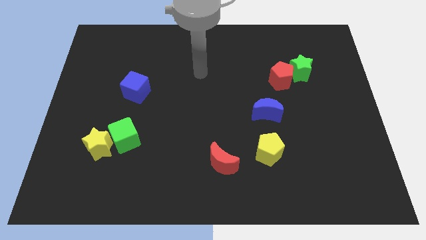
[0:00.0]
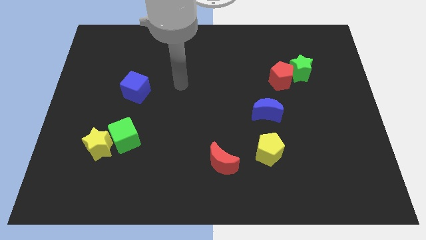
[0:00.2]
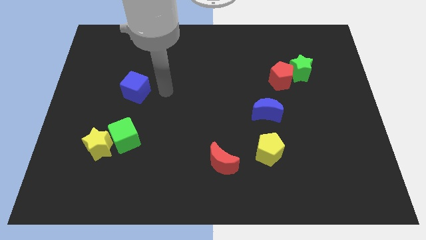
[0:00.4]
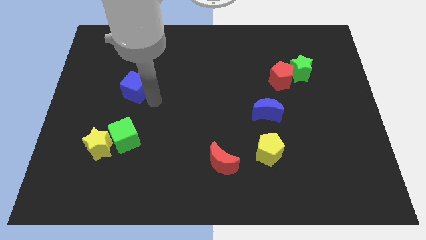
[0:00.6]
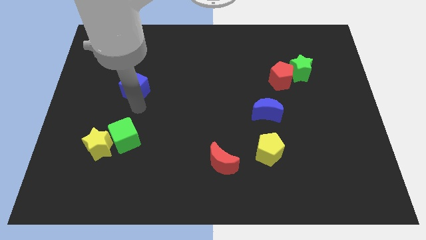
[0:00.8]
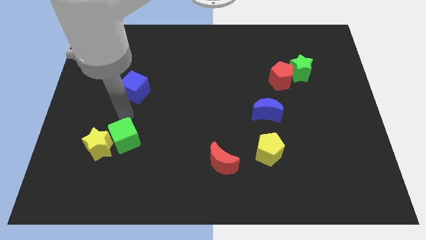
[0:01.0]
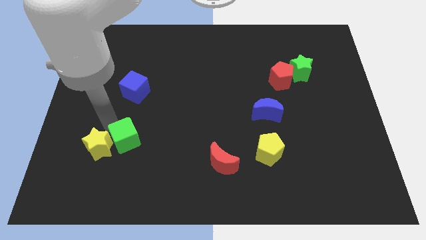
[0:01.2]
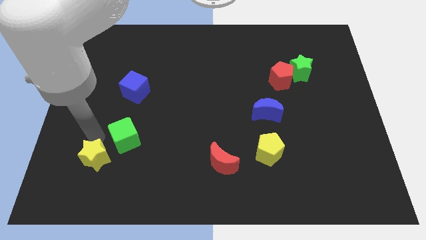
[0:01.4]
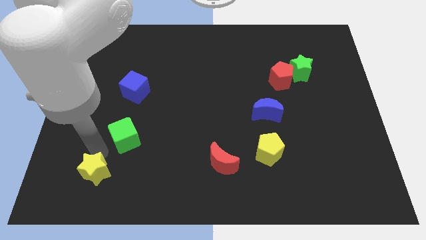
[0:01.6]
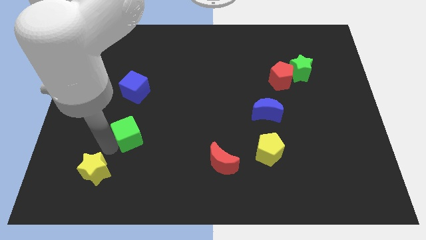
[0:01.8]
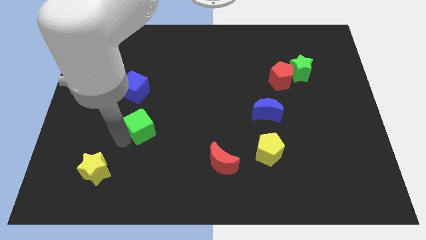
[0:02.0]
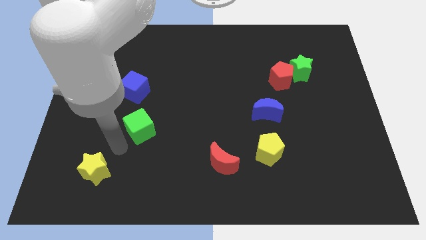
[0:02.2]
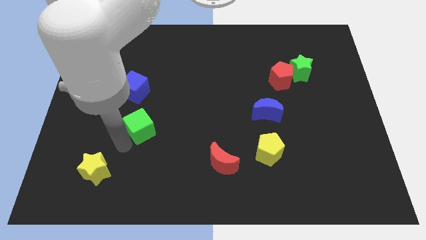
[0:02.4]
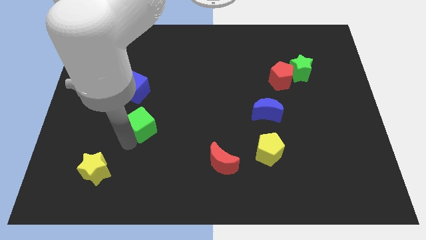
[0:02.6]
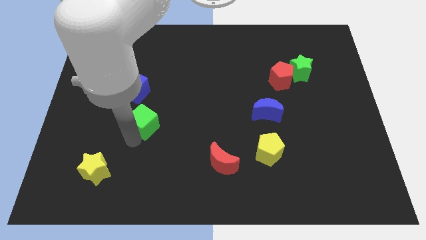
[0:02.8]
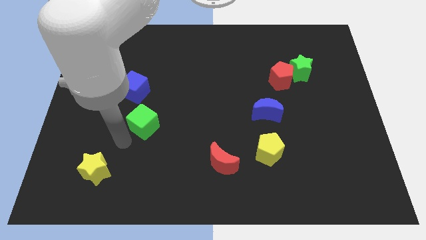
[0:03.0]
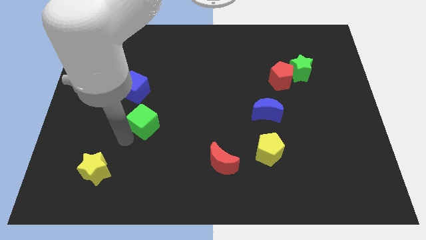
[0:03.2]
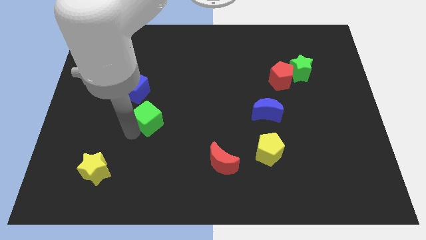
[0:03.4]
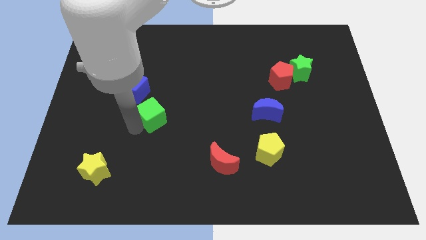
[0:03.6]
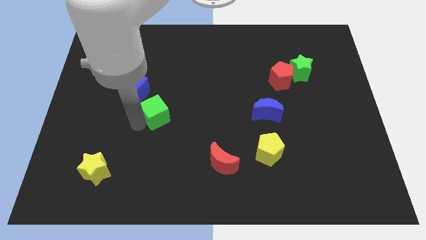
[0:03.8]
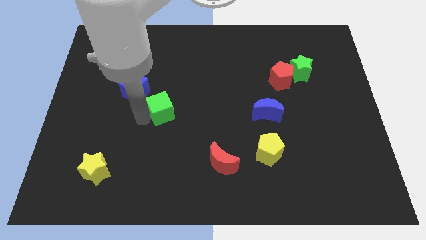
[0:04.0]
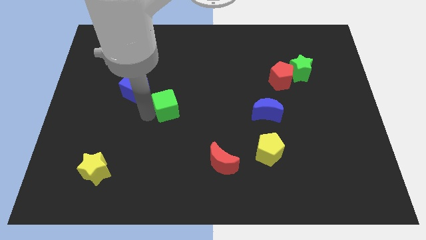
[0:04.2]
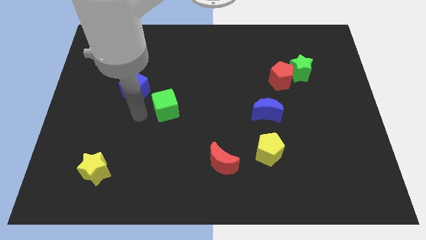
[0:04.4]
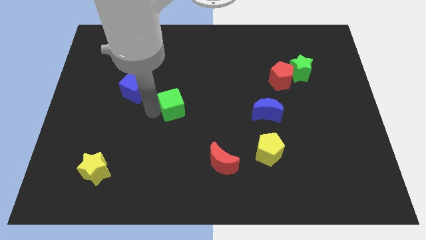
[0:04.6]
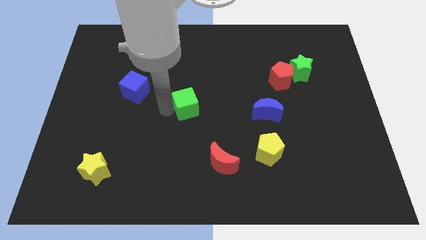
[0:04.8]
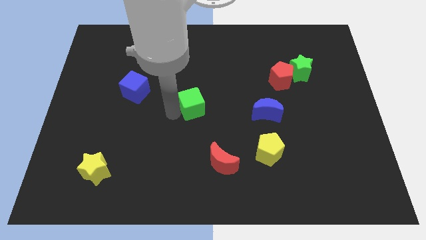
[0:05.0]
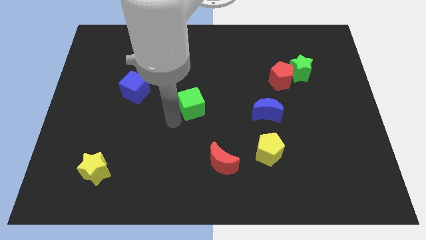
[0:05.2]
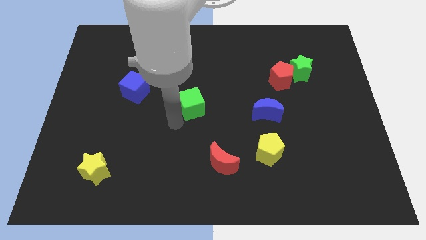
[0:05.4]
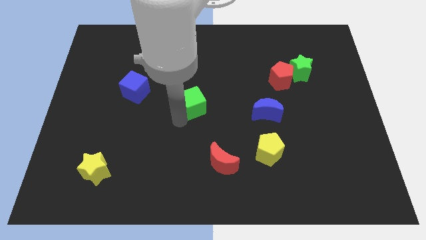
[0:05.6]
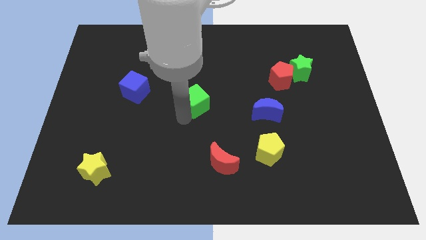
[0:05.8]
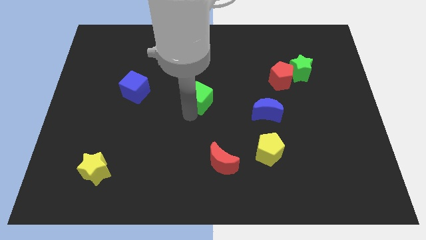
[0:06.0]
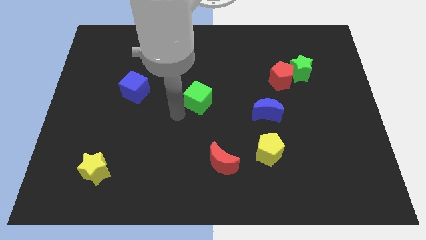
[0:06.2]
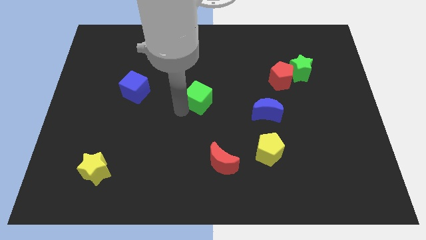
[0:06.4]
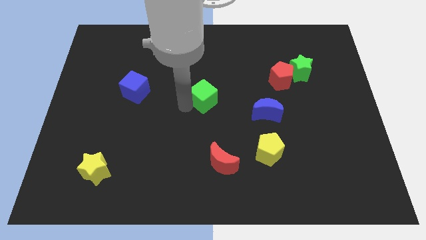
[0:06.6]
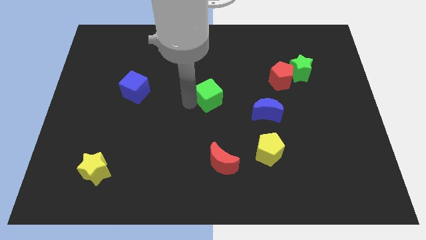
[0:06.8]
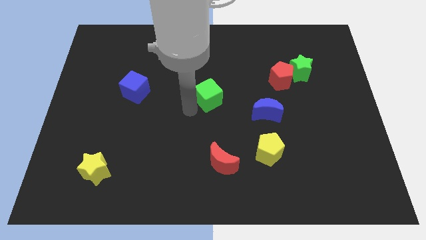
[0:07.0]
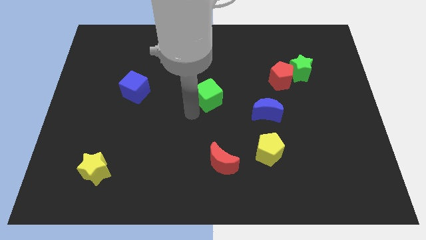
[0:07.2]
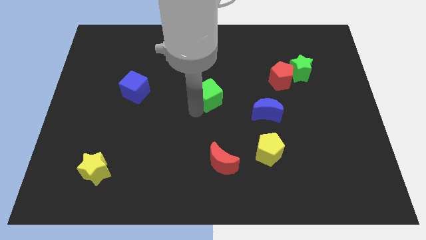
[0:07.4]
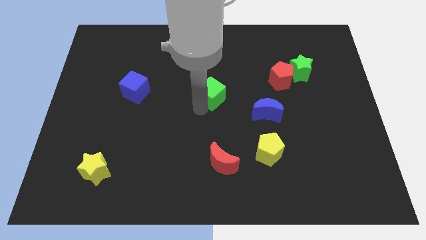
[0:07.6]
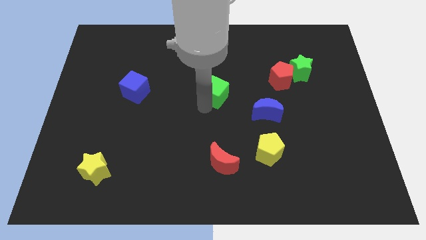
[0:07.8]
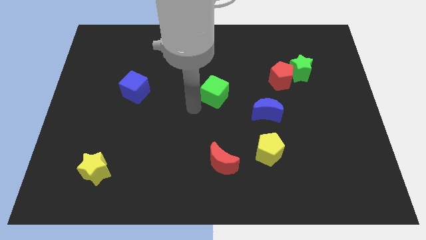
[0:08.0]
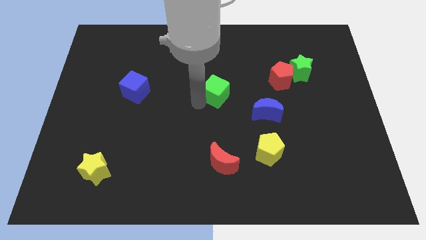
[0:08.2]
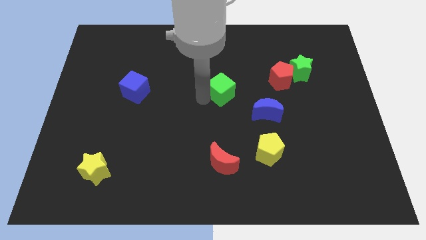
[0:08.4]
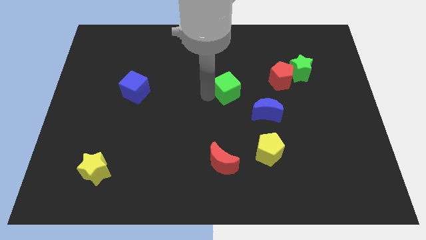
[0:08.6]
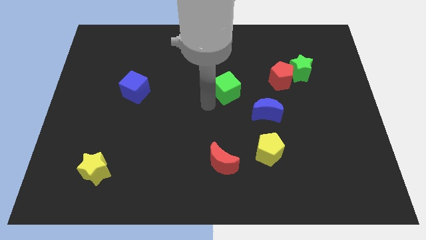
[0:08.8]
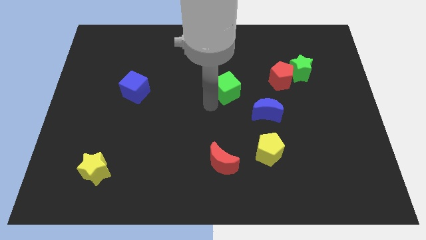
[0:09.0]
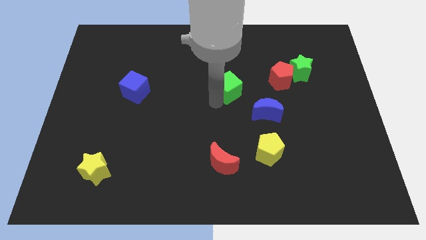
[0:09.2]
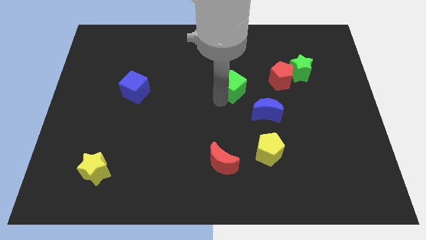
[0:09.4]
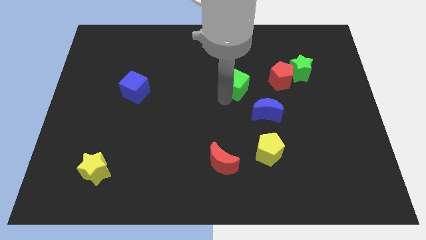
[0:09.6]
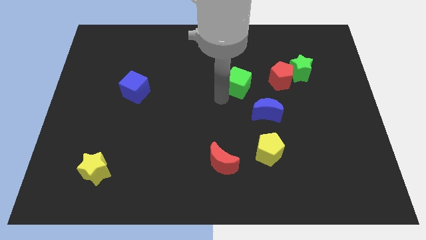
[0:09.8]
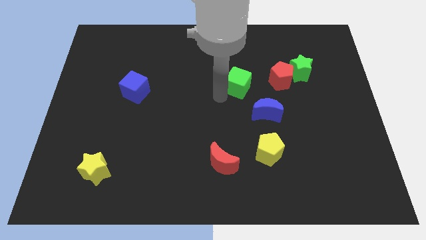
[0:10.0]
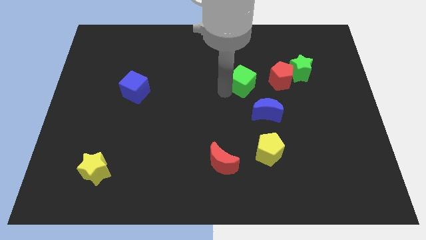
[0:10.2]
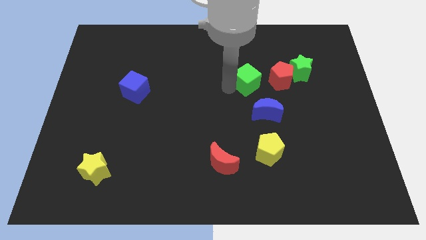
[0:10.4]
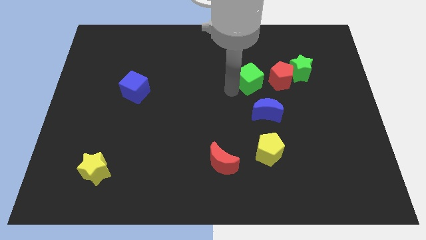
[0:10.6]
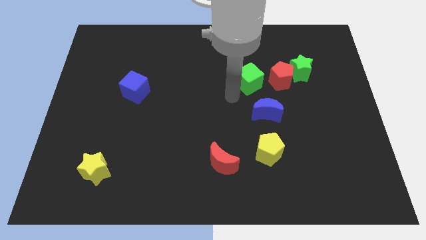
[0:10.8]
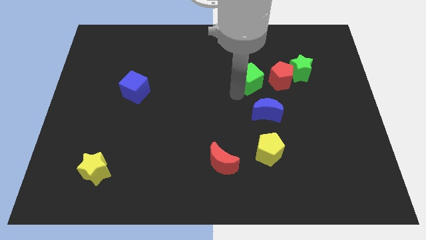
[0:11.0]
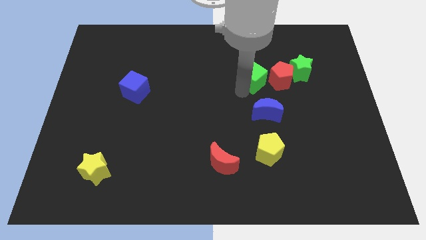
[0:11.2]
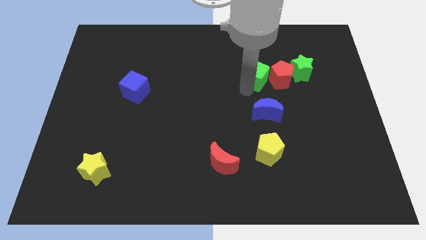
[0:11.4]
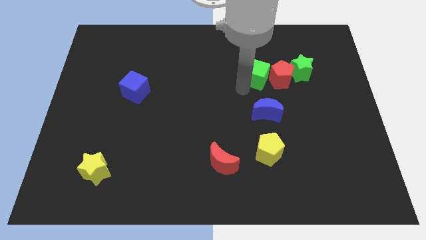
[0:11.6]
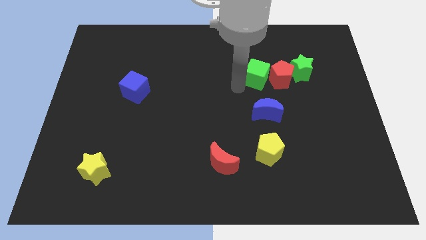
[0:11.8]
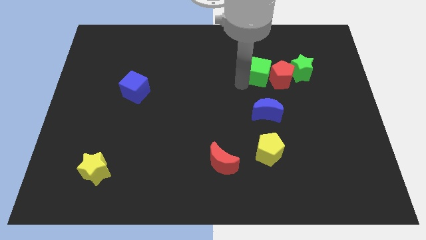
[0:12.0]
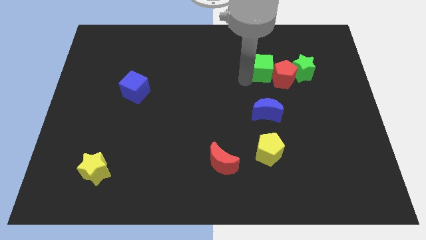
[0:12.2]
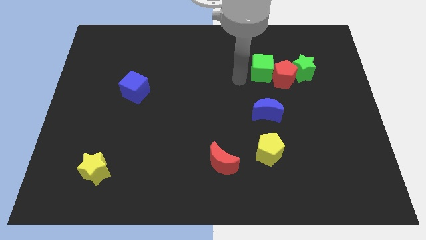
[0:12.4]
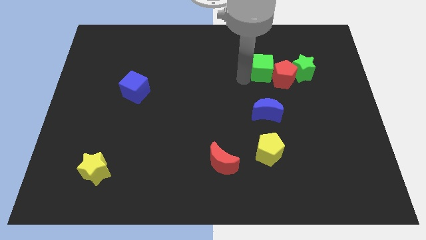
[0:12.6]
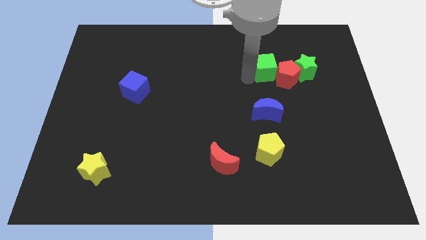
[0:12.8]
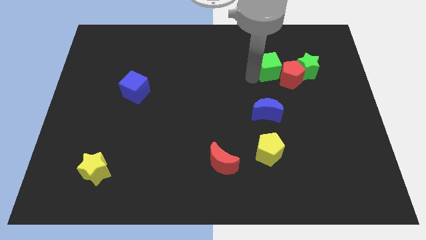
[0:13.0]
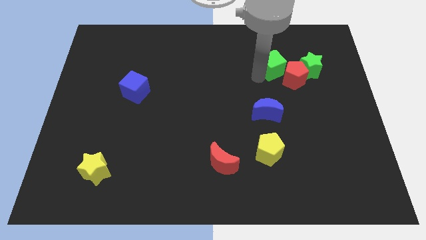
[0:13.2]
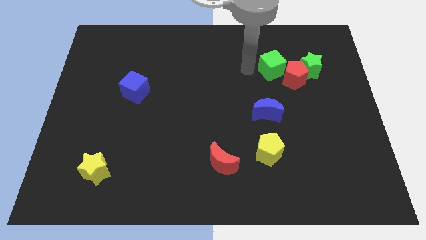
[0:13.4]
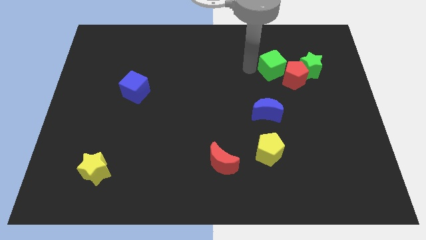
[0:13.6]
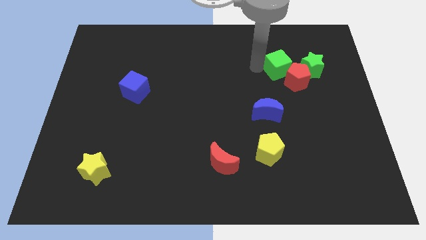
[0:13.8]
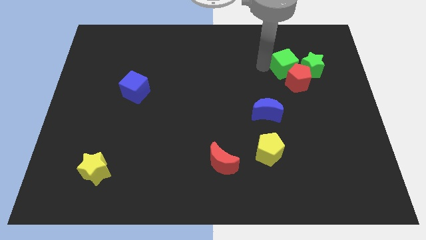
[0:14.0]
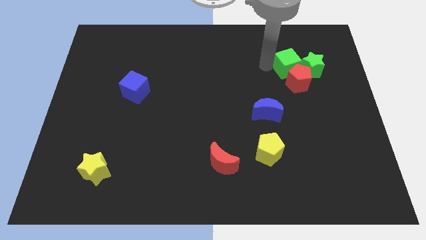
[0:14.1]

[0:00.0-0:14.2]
push the green cube to the green star

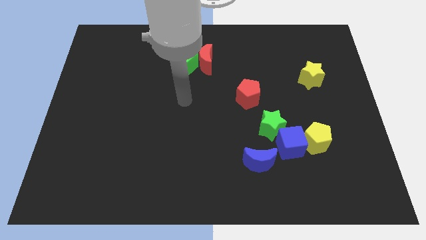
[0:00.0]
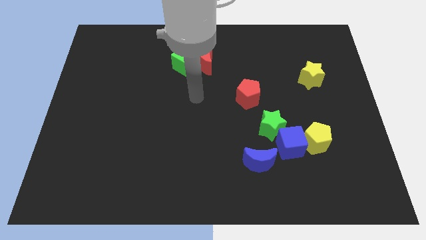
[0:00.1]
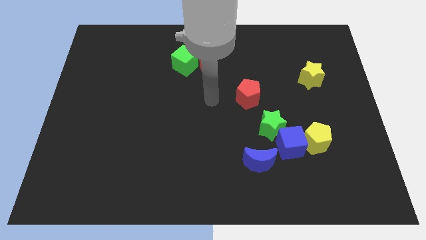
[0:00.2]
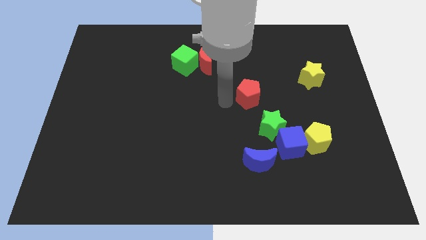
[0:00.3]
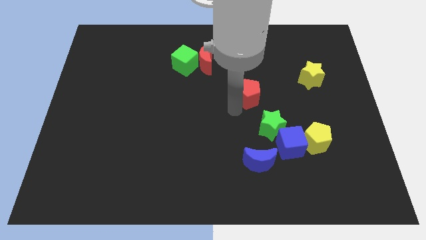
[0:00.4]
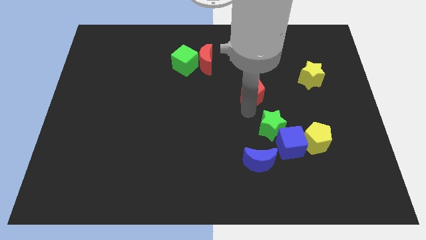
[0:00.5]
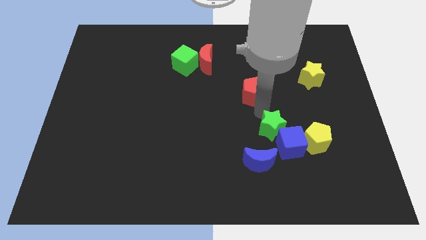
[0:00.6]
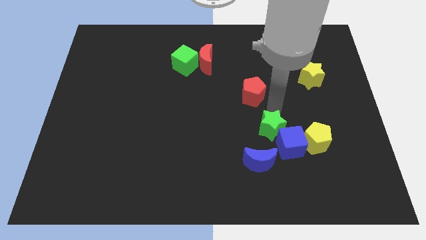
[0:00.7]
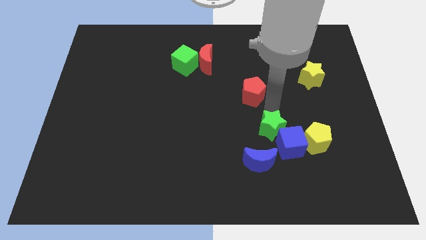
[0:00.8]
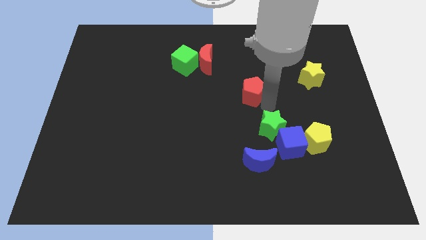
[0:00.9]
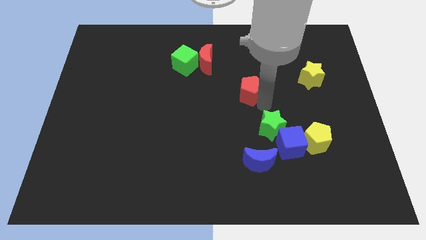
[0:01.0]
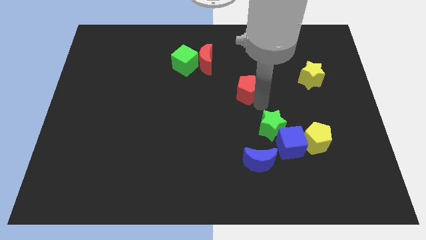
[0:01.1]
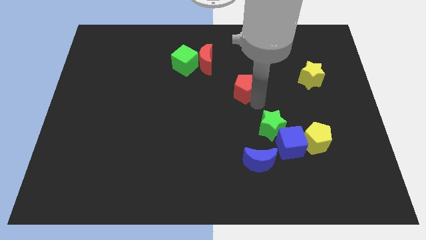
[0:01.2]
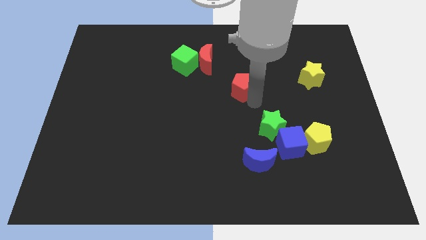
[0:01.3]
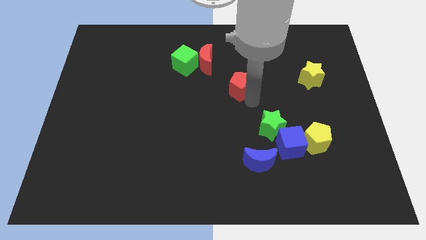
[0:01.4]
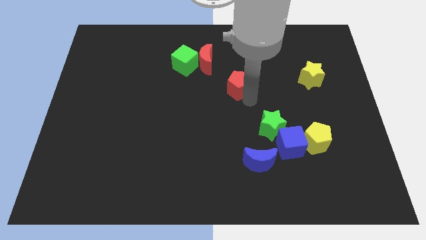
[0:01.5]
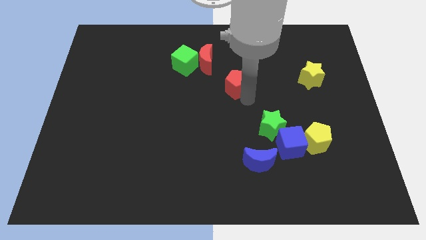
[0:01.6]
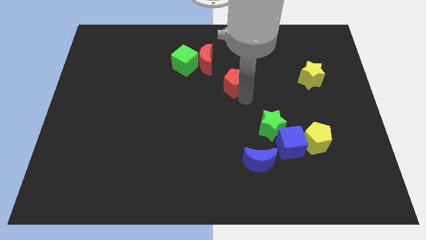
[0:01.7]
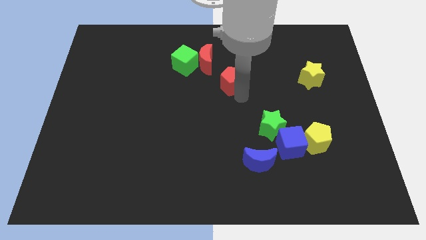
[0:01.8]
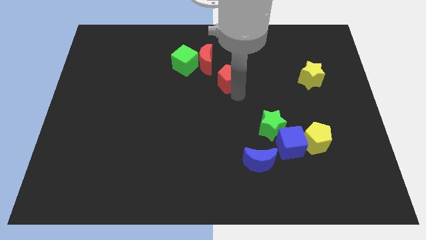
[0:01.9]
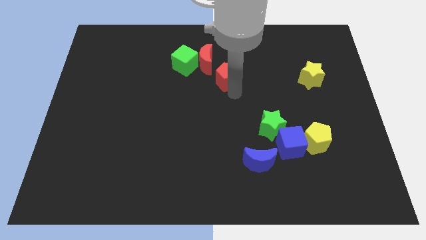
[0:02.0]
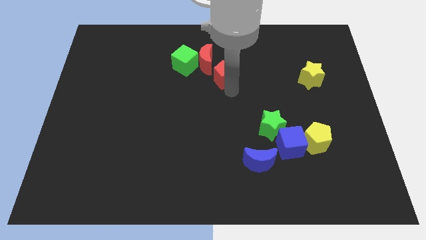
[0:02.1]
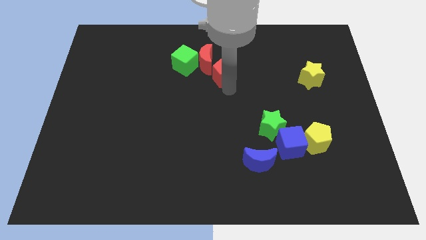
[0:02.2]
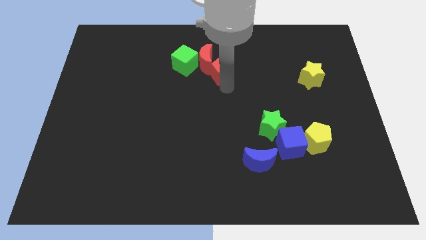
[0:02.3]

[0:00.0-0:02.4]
put the red pentagon next to the red moon
